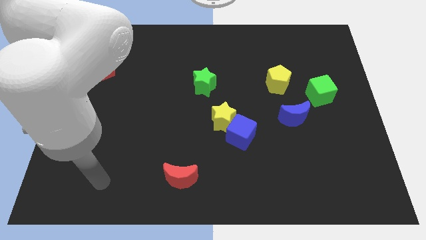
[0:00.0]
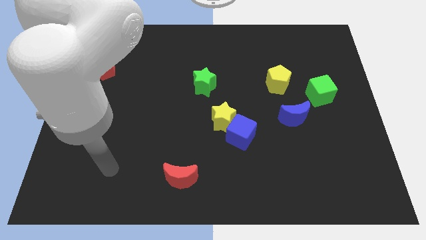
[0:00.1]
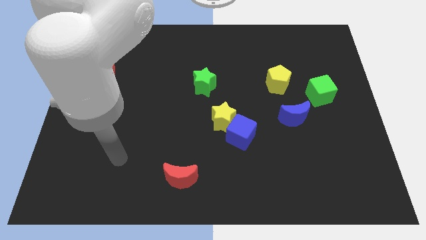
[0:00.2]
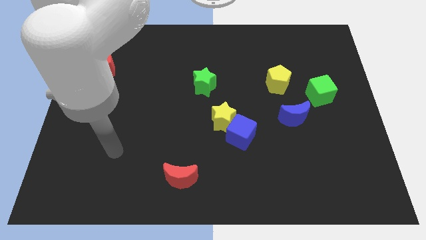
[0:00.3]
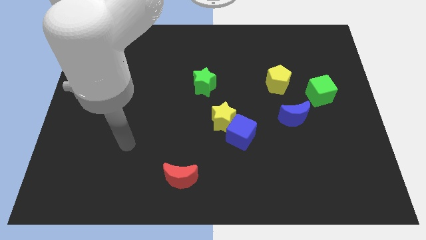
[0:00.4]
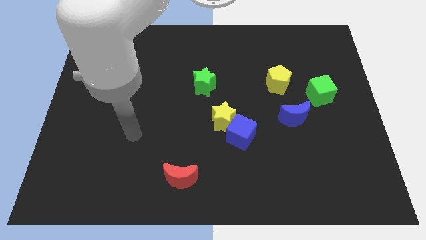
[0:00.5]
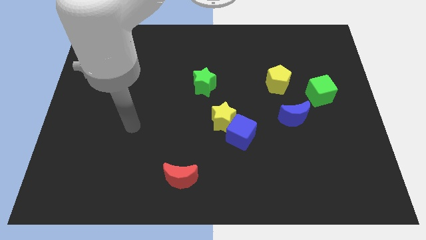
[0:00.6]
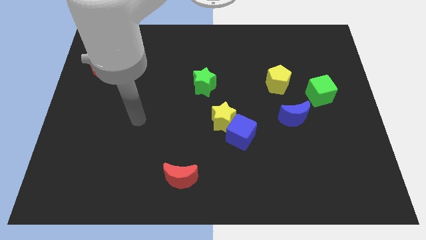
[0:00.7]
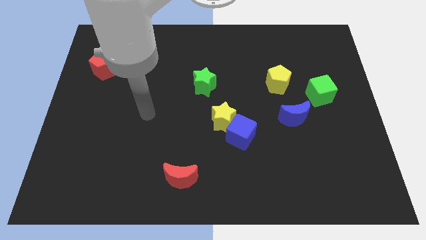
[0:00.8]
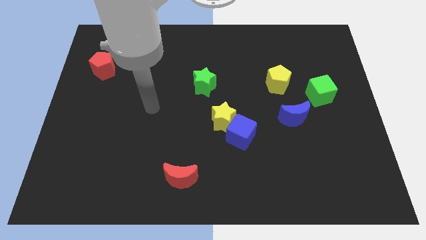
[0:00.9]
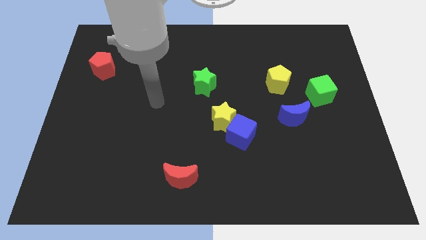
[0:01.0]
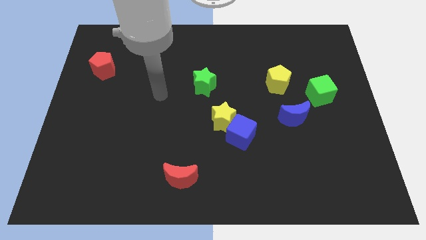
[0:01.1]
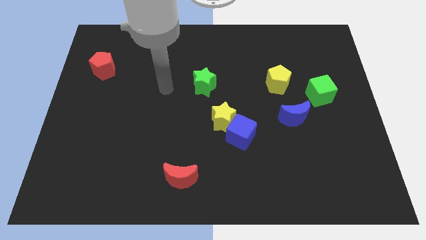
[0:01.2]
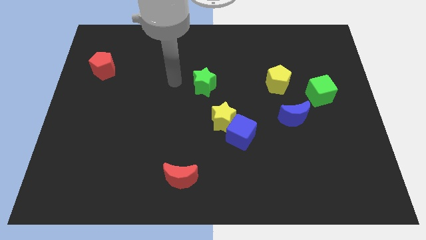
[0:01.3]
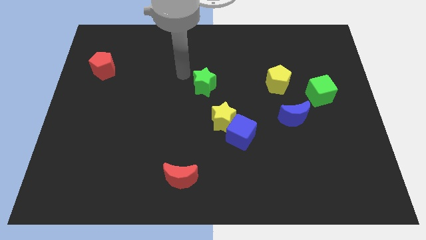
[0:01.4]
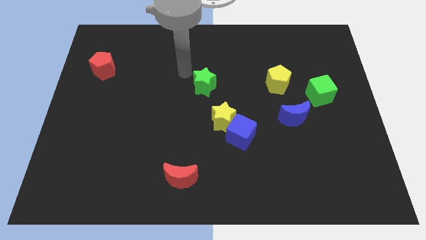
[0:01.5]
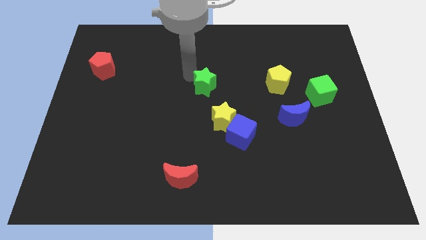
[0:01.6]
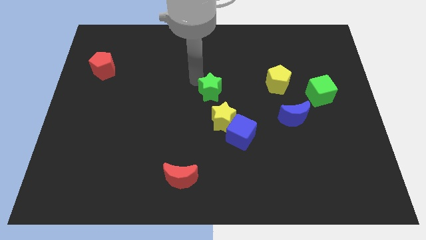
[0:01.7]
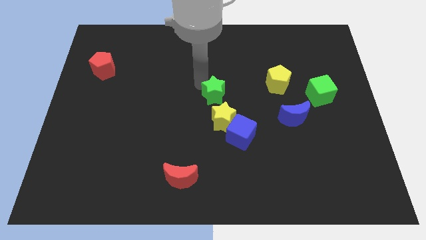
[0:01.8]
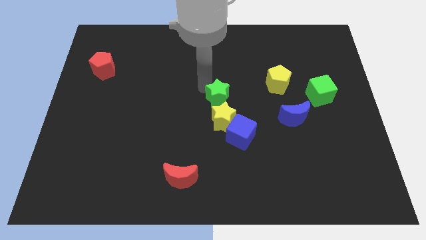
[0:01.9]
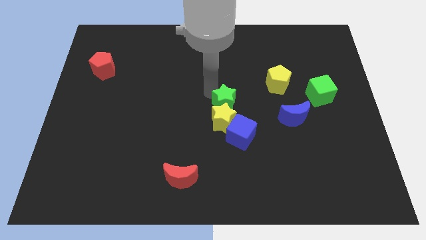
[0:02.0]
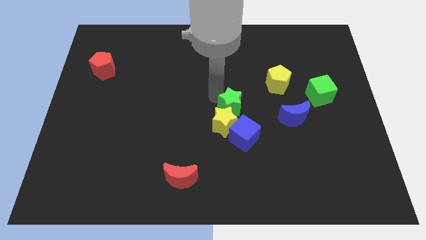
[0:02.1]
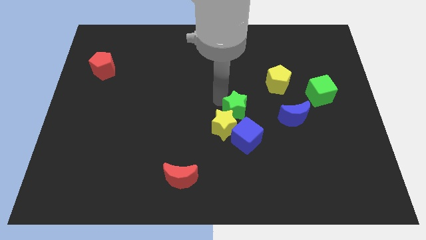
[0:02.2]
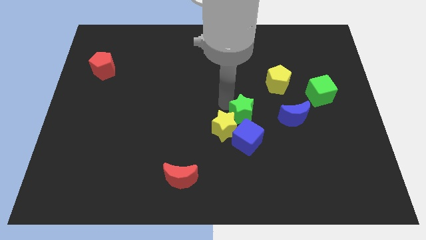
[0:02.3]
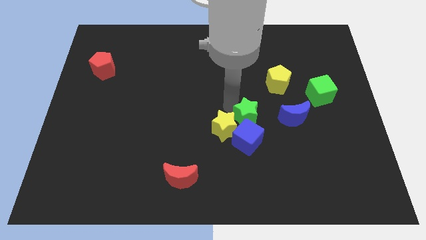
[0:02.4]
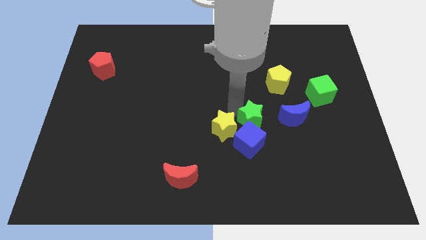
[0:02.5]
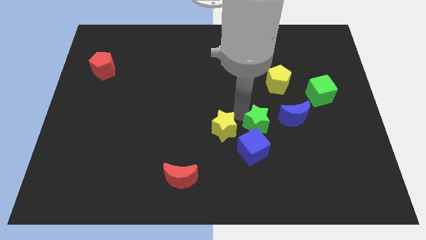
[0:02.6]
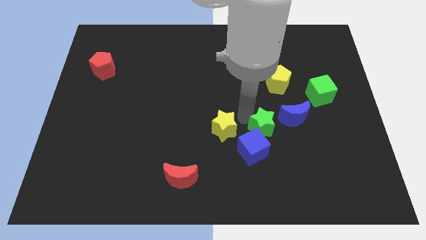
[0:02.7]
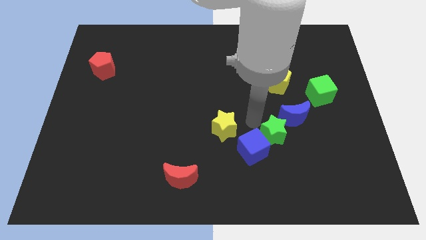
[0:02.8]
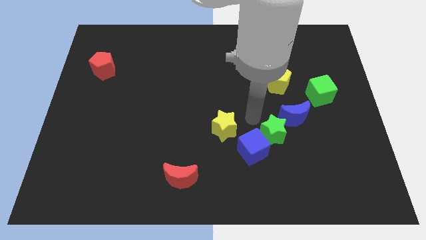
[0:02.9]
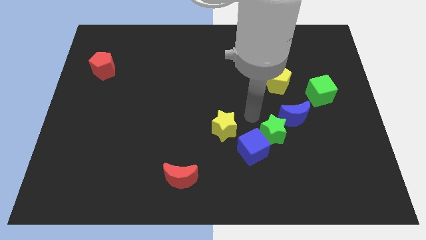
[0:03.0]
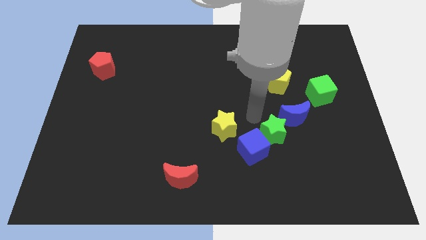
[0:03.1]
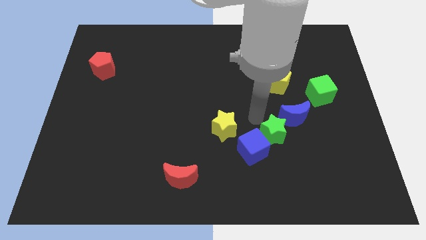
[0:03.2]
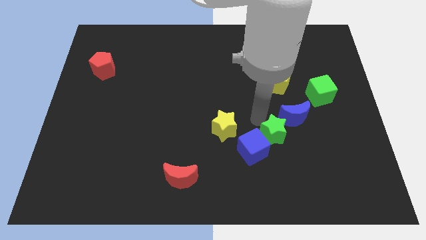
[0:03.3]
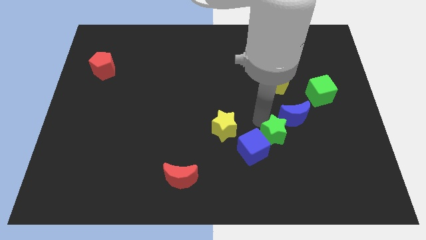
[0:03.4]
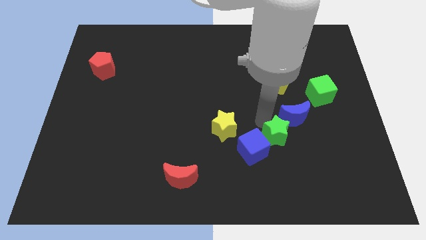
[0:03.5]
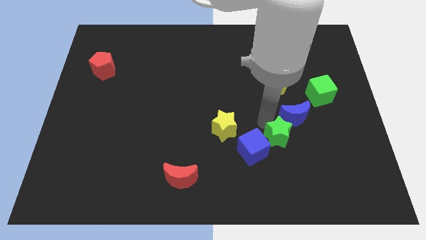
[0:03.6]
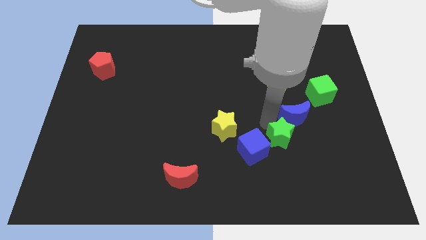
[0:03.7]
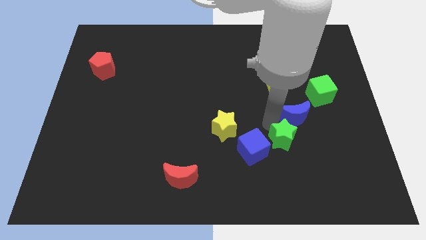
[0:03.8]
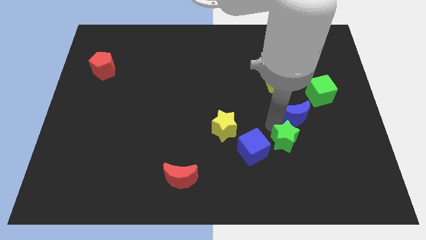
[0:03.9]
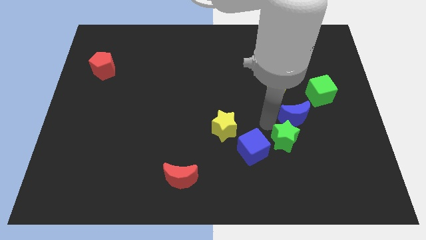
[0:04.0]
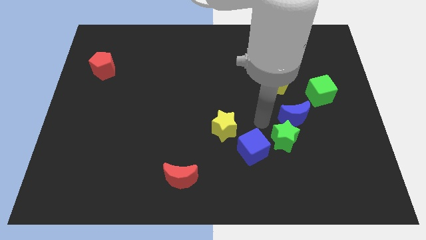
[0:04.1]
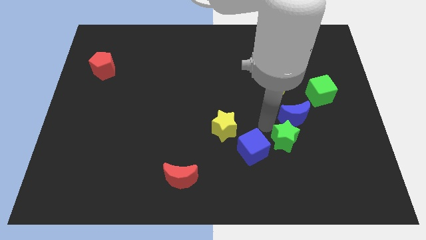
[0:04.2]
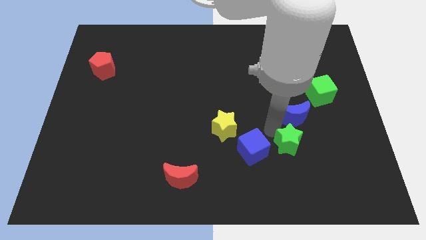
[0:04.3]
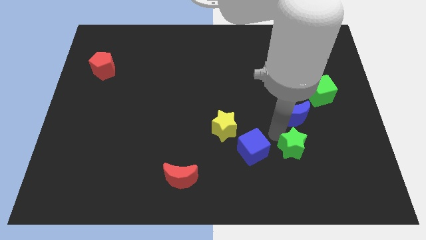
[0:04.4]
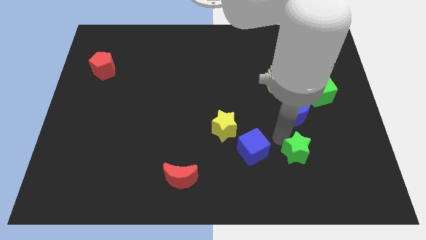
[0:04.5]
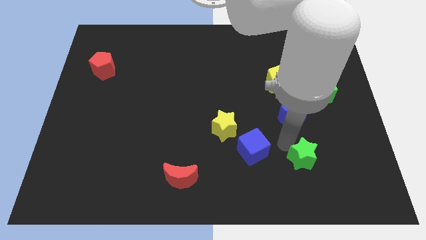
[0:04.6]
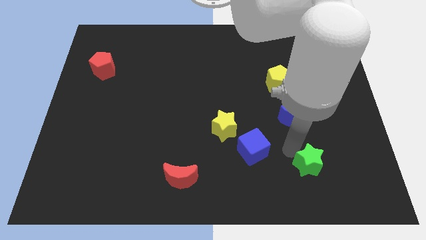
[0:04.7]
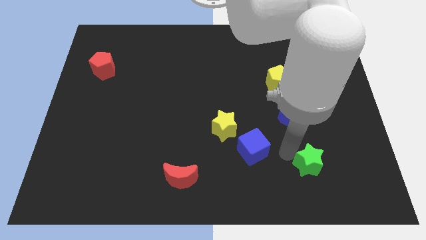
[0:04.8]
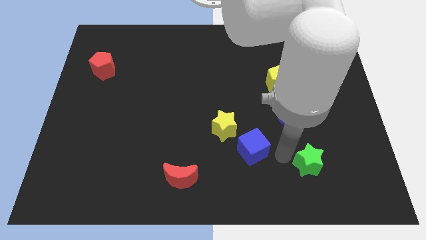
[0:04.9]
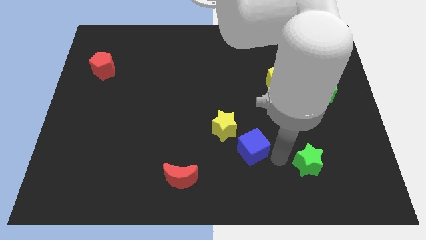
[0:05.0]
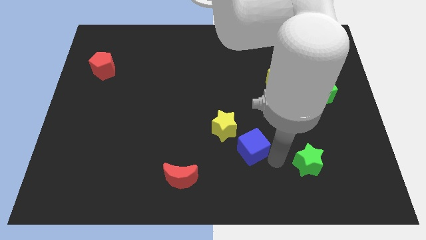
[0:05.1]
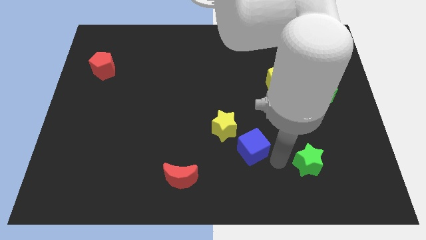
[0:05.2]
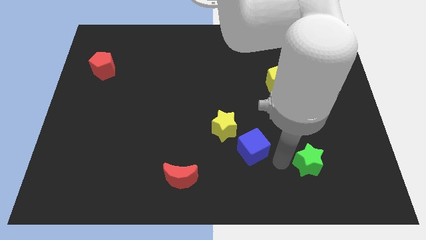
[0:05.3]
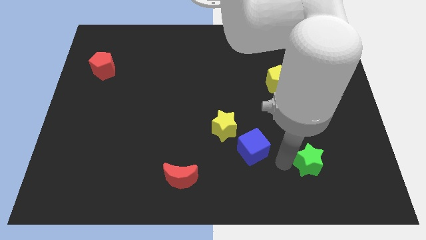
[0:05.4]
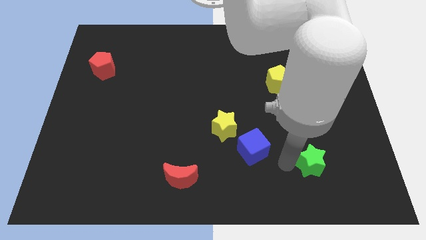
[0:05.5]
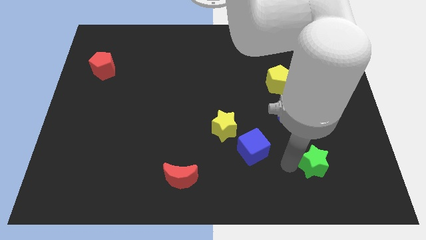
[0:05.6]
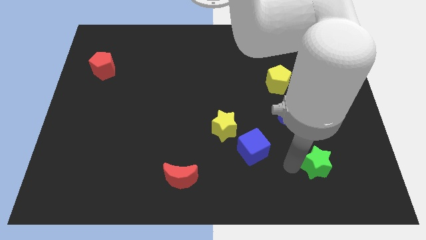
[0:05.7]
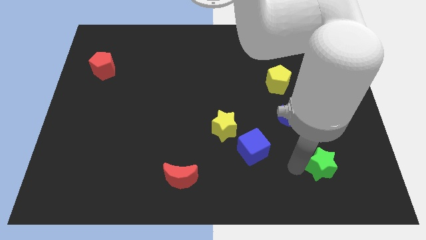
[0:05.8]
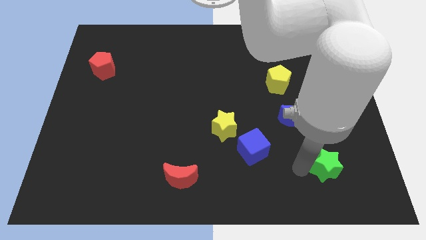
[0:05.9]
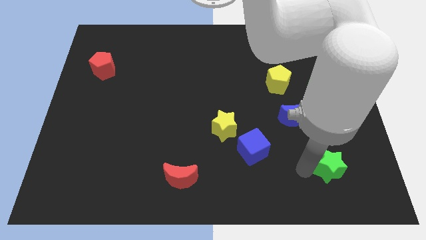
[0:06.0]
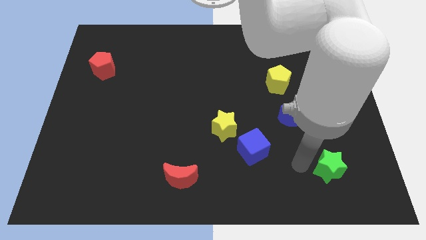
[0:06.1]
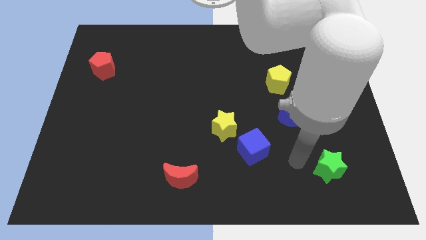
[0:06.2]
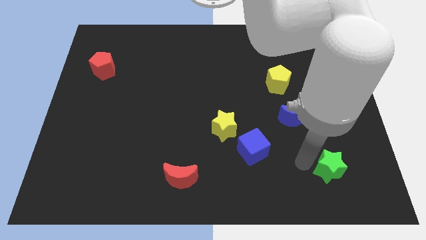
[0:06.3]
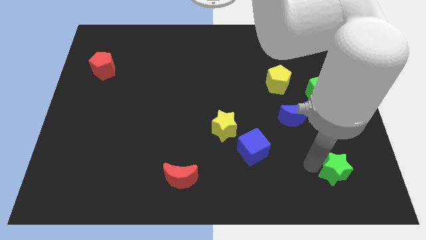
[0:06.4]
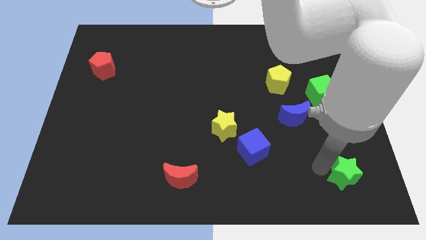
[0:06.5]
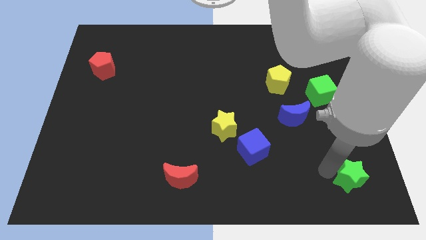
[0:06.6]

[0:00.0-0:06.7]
slide the green star to the bottom right
